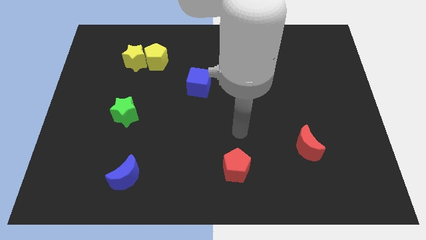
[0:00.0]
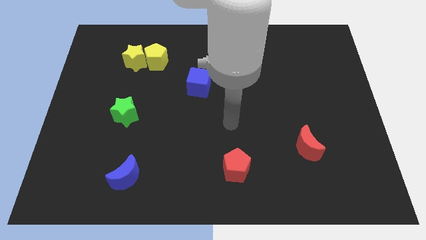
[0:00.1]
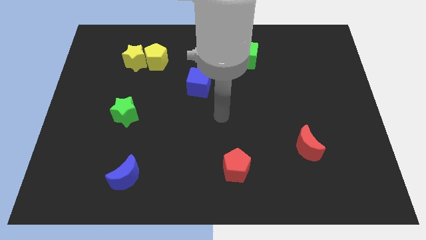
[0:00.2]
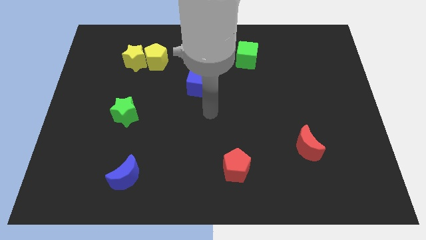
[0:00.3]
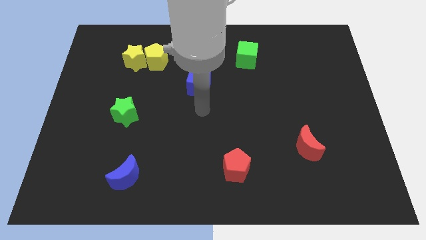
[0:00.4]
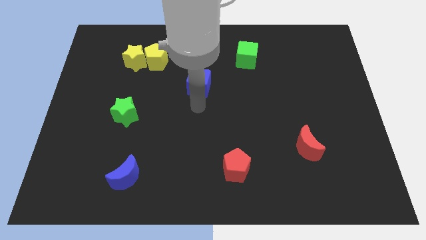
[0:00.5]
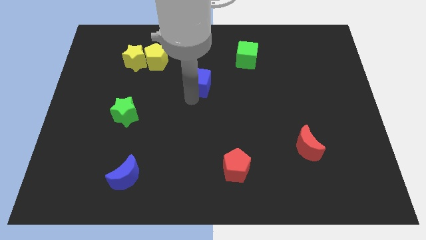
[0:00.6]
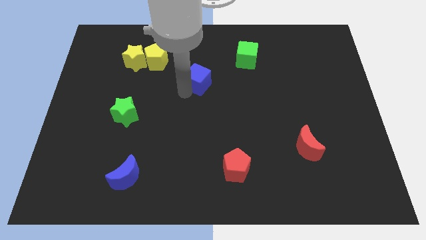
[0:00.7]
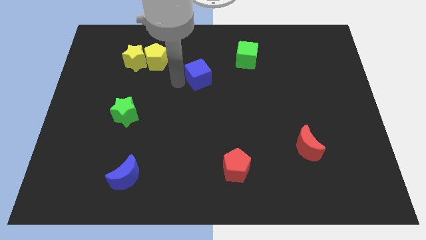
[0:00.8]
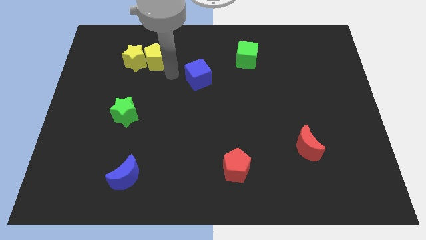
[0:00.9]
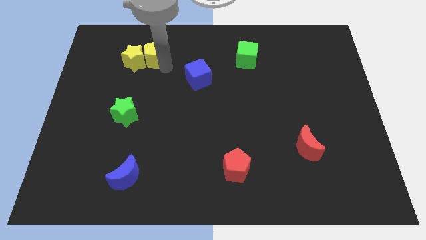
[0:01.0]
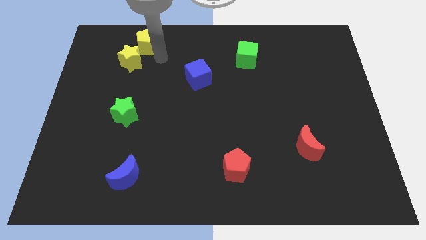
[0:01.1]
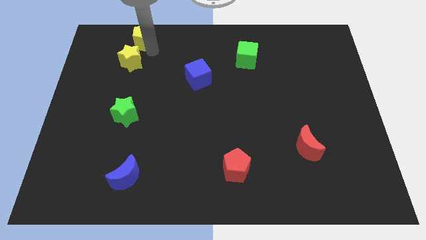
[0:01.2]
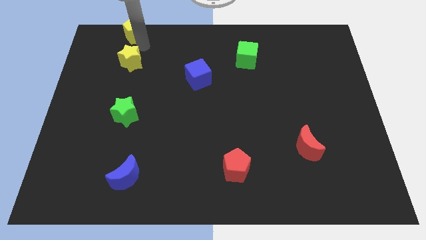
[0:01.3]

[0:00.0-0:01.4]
separate the yellow star from the yellow pentagon

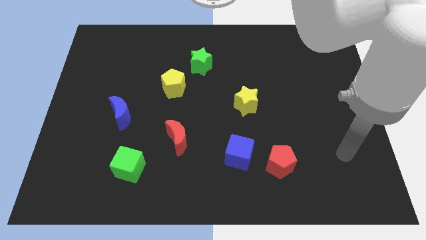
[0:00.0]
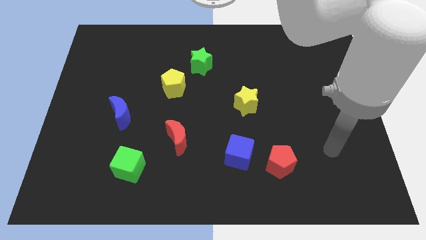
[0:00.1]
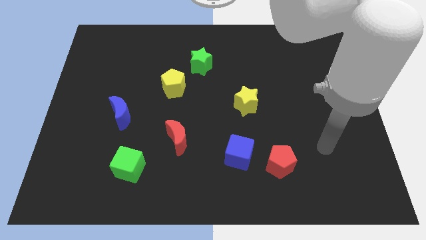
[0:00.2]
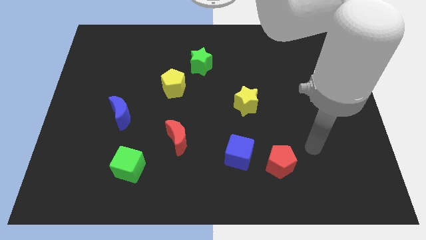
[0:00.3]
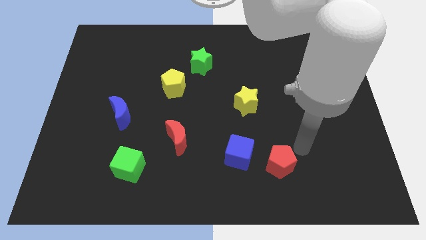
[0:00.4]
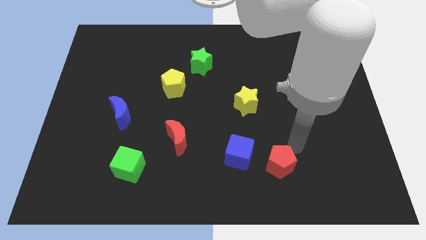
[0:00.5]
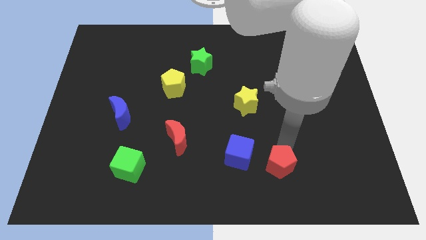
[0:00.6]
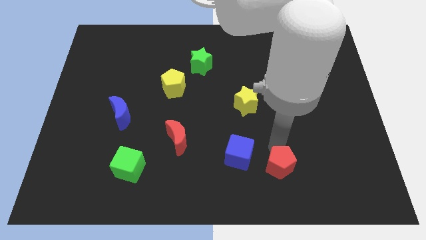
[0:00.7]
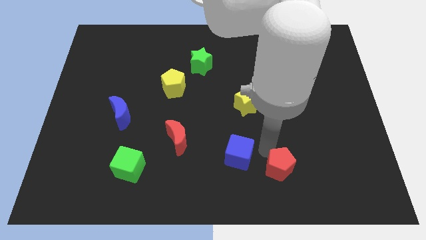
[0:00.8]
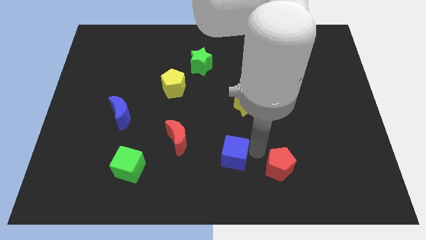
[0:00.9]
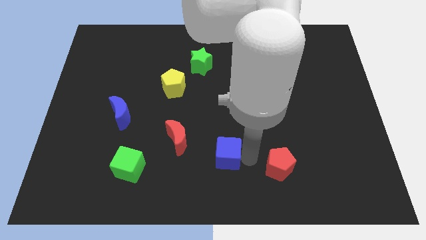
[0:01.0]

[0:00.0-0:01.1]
move the red pentagon away from the blue cube

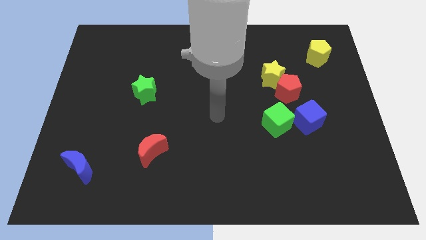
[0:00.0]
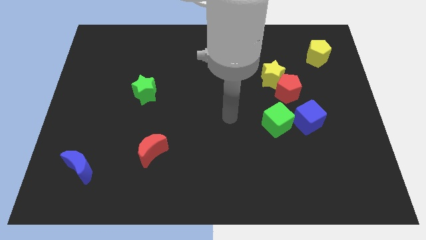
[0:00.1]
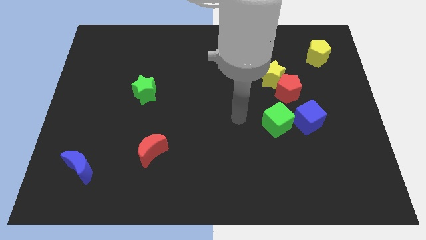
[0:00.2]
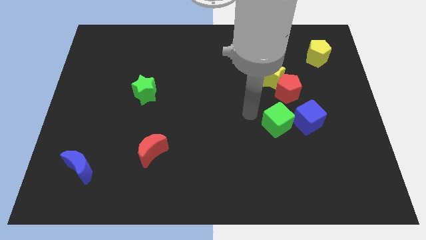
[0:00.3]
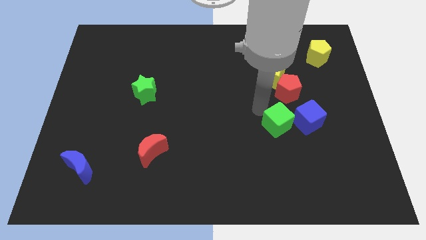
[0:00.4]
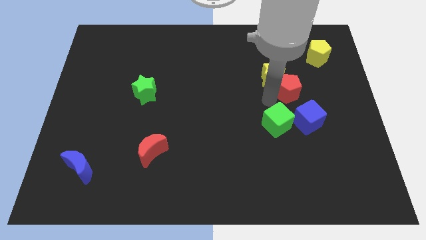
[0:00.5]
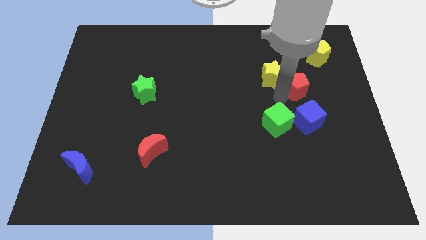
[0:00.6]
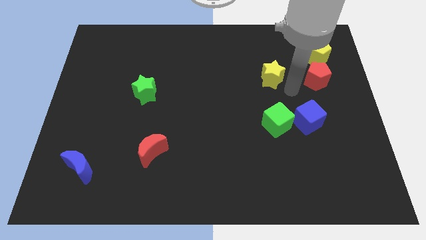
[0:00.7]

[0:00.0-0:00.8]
move the yellow star away from the red pentagon

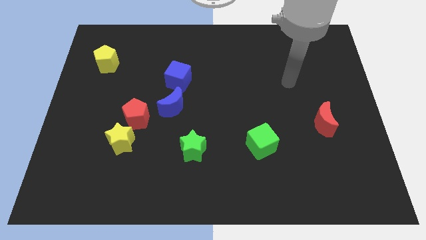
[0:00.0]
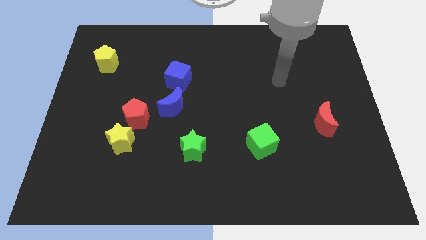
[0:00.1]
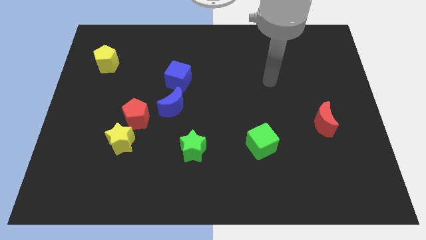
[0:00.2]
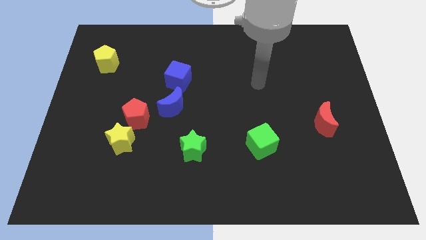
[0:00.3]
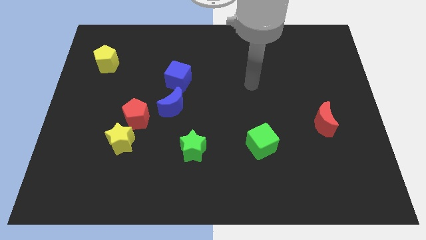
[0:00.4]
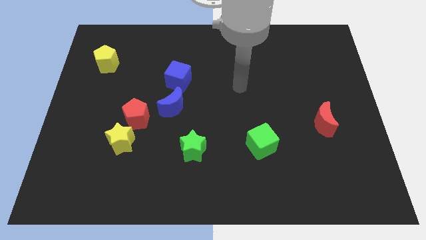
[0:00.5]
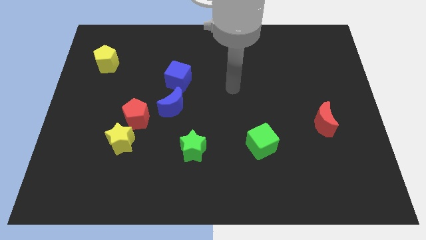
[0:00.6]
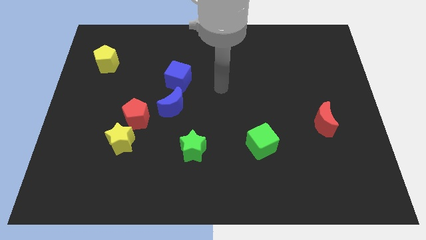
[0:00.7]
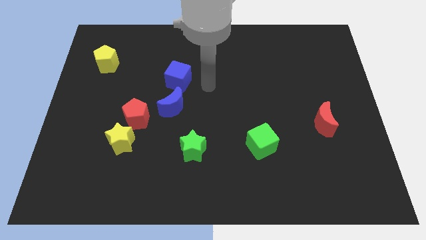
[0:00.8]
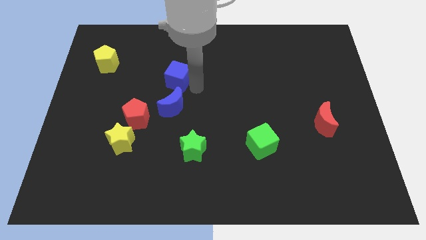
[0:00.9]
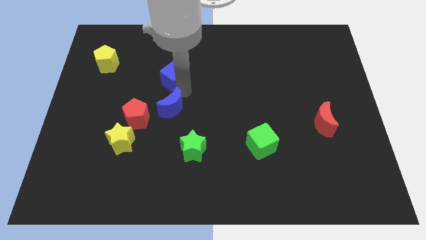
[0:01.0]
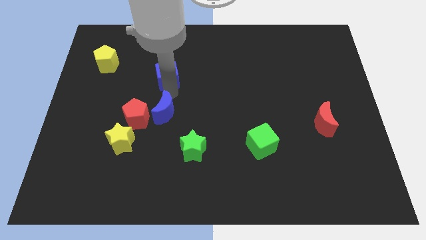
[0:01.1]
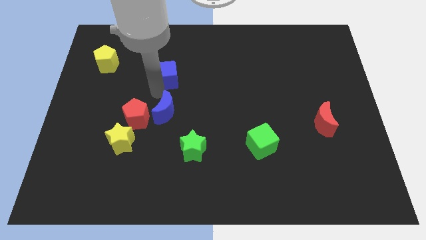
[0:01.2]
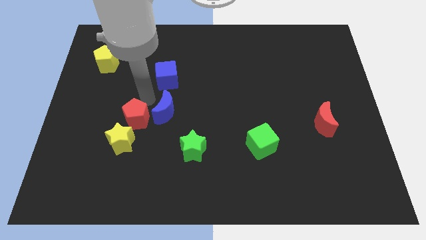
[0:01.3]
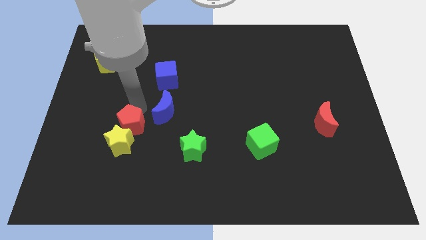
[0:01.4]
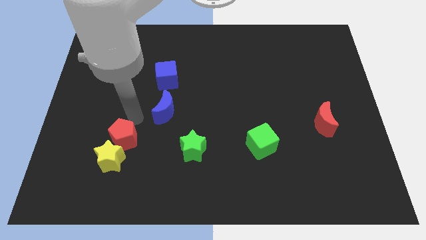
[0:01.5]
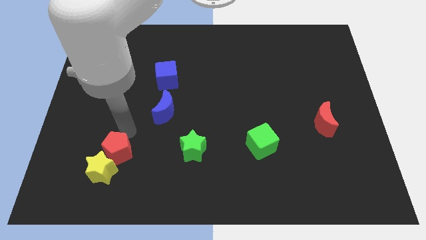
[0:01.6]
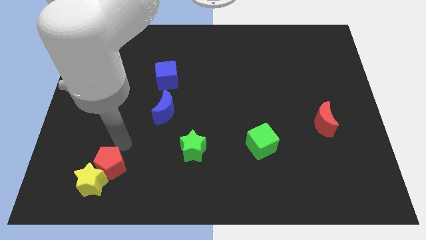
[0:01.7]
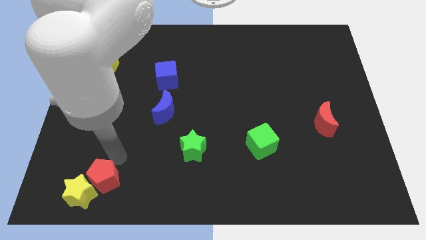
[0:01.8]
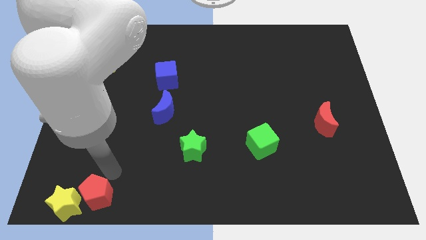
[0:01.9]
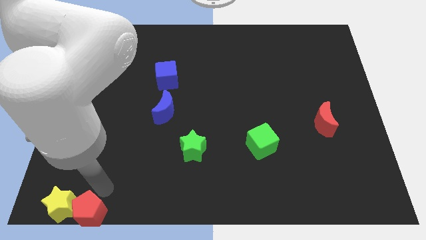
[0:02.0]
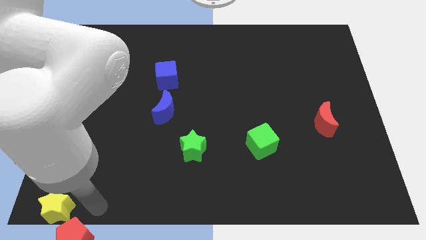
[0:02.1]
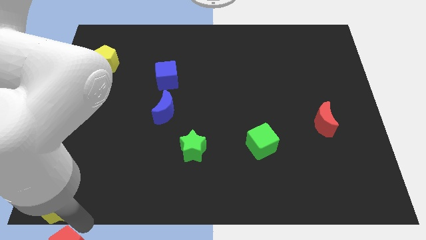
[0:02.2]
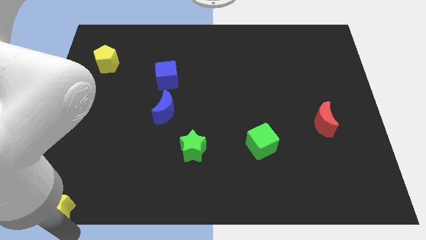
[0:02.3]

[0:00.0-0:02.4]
separate the yellow star from the red pentagon

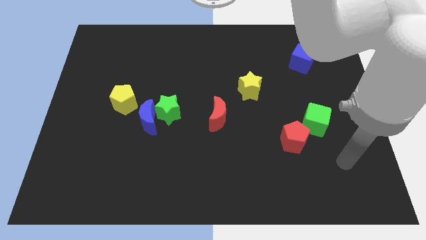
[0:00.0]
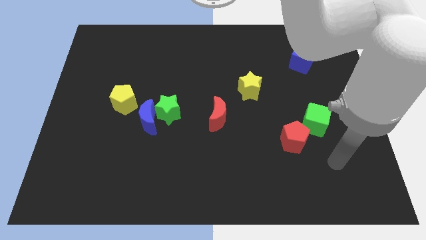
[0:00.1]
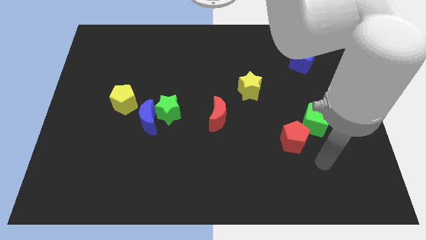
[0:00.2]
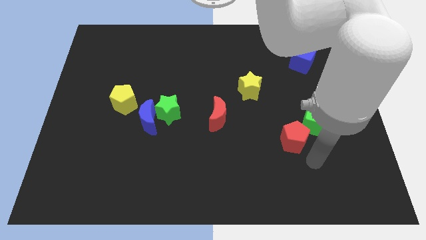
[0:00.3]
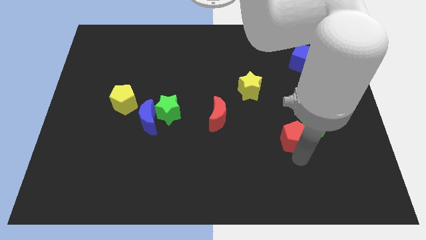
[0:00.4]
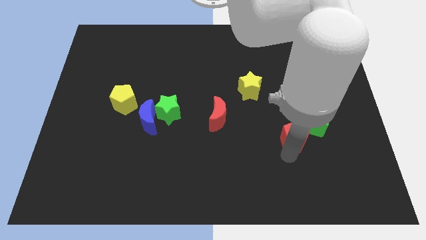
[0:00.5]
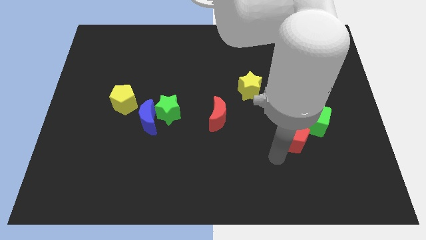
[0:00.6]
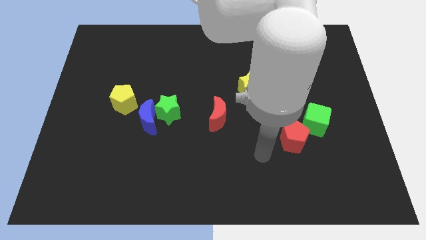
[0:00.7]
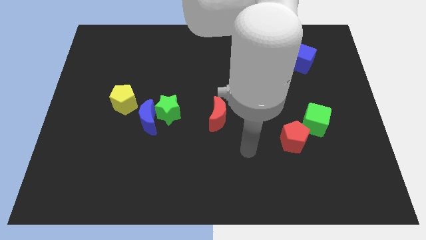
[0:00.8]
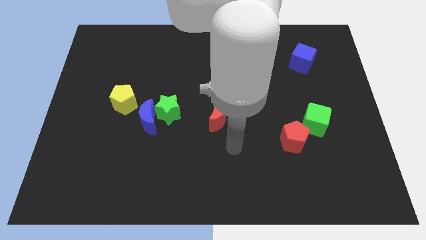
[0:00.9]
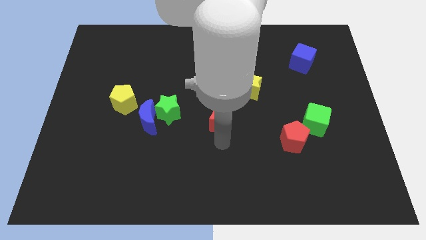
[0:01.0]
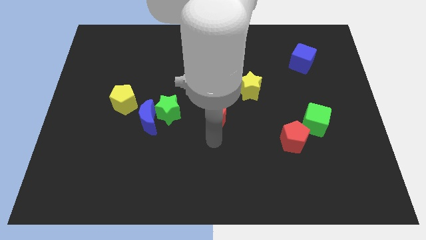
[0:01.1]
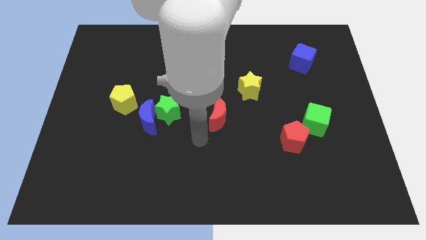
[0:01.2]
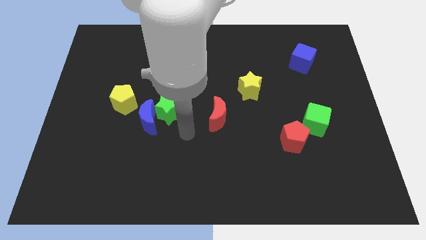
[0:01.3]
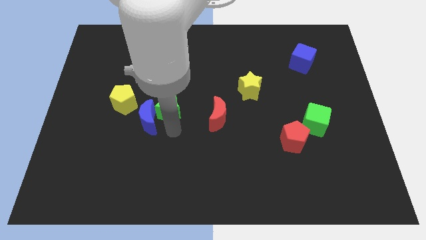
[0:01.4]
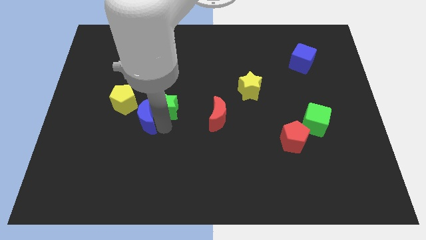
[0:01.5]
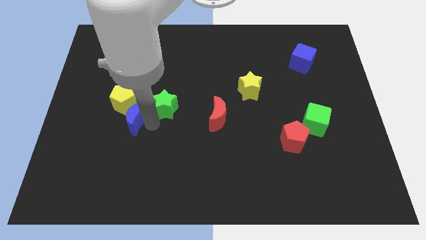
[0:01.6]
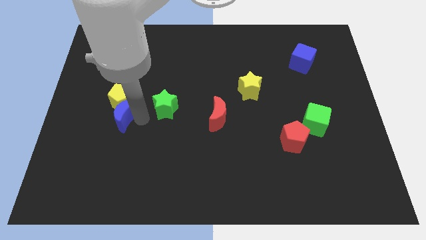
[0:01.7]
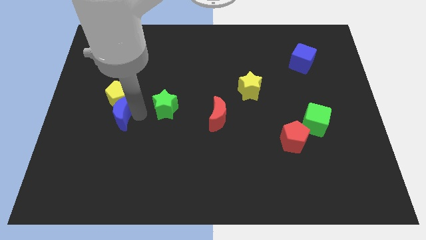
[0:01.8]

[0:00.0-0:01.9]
move the green star away from the blue moon

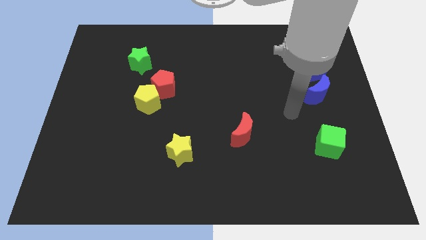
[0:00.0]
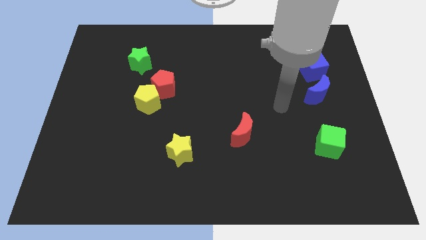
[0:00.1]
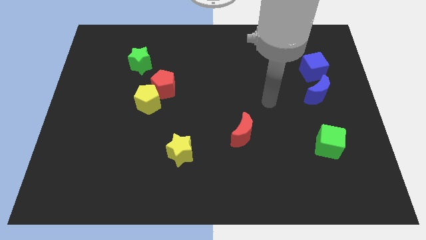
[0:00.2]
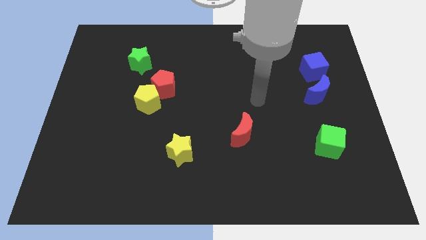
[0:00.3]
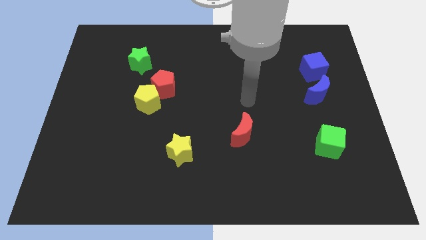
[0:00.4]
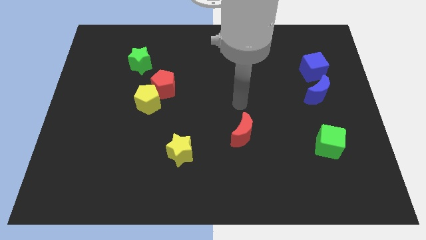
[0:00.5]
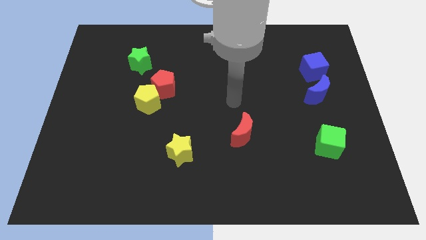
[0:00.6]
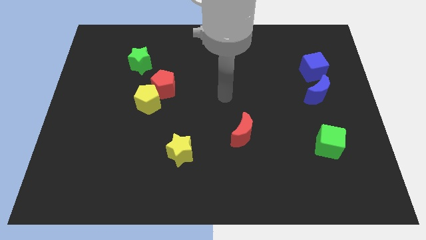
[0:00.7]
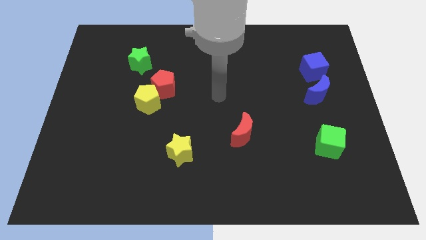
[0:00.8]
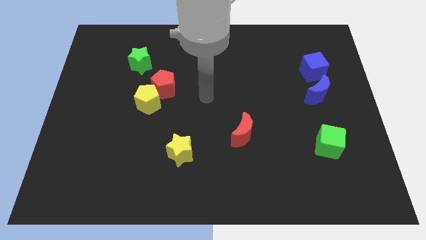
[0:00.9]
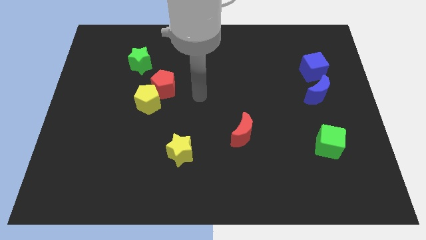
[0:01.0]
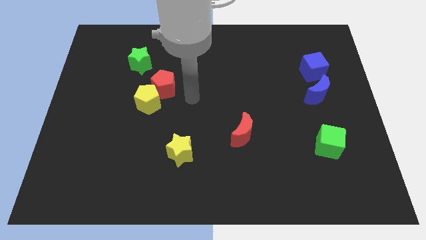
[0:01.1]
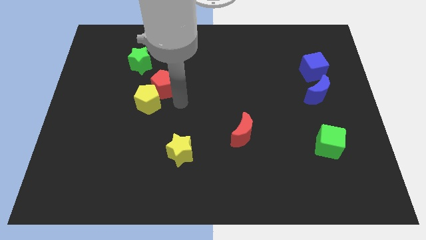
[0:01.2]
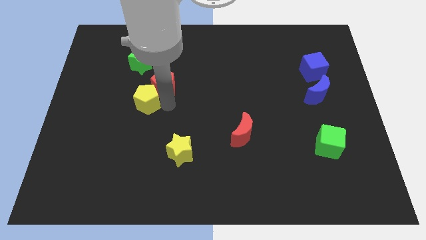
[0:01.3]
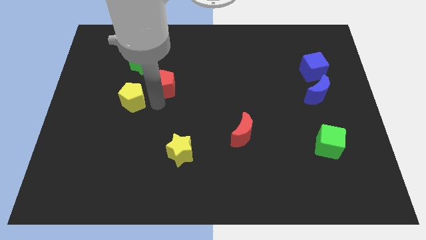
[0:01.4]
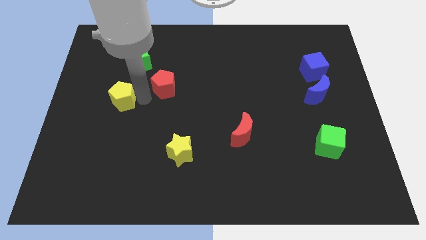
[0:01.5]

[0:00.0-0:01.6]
move the red pentagon away from the yellow pentagon

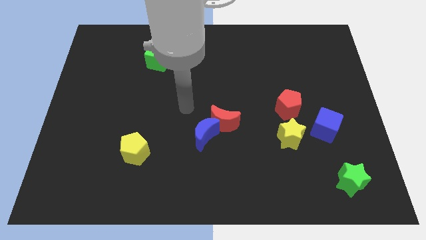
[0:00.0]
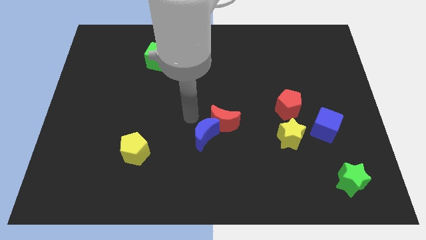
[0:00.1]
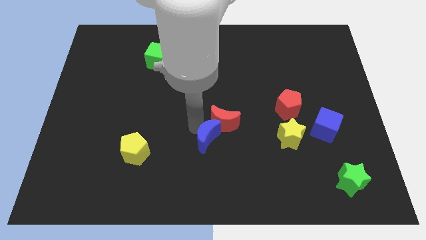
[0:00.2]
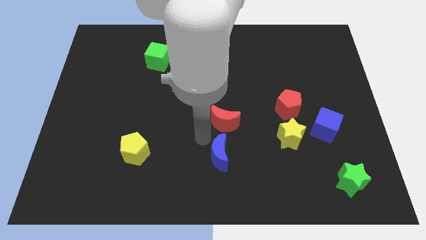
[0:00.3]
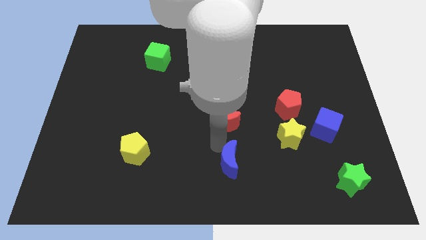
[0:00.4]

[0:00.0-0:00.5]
pull the red moon apart from the blue moon
